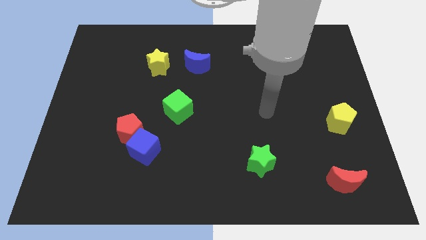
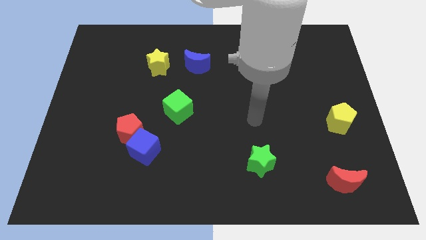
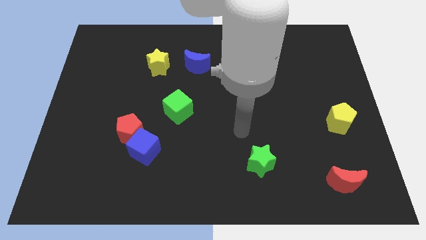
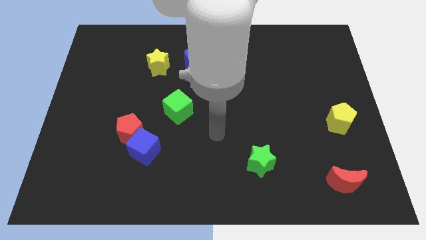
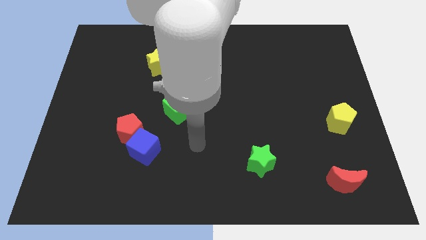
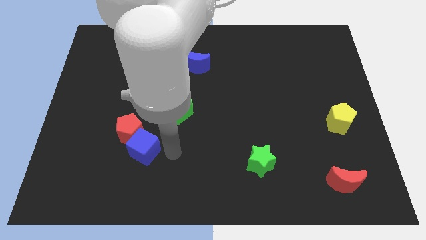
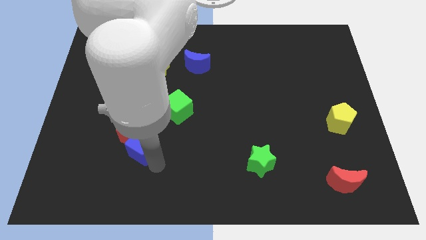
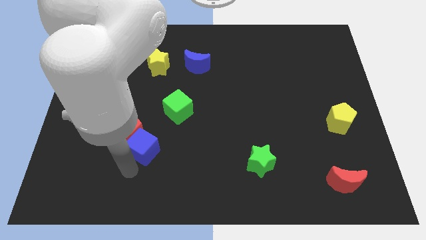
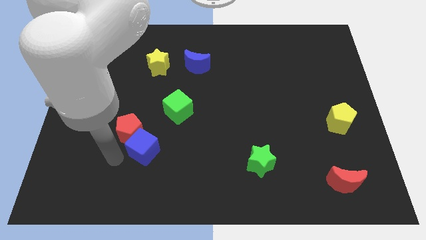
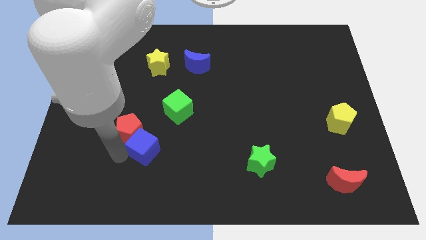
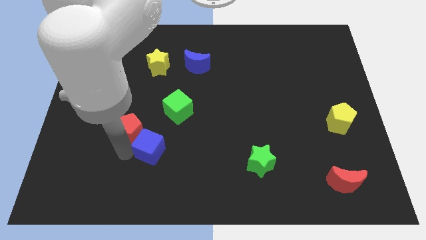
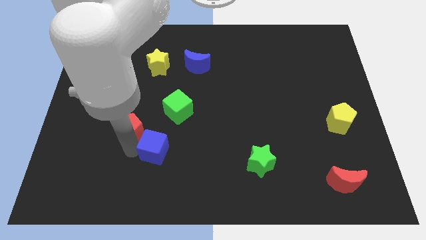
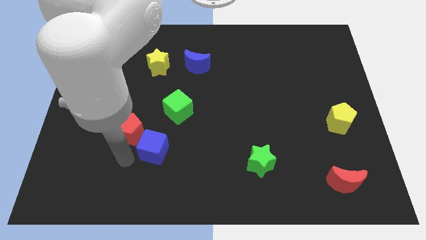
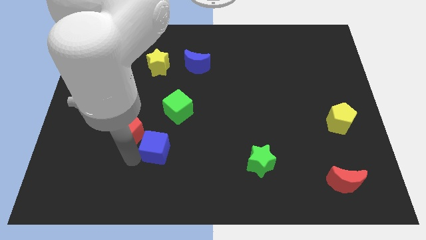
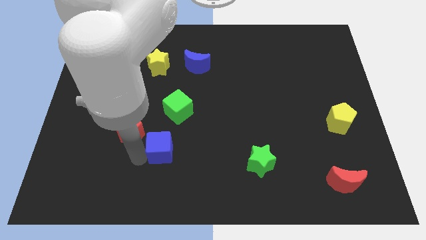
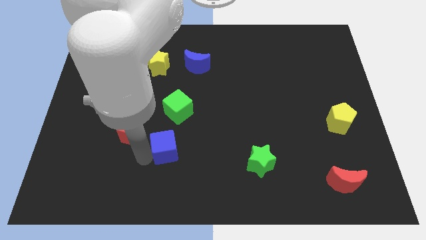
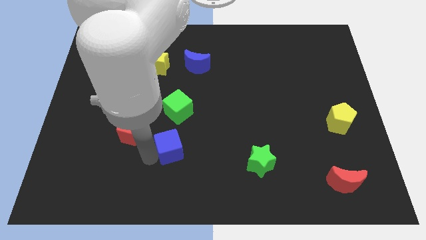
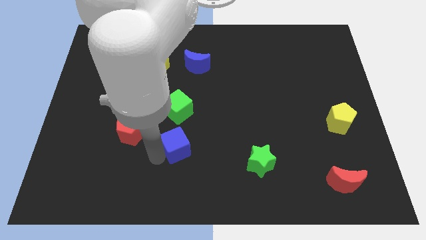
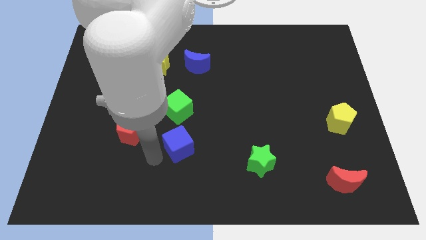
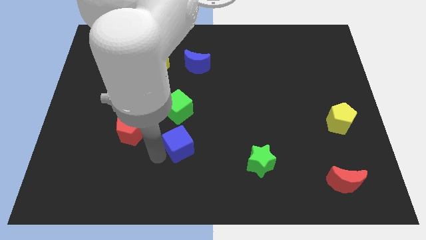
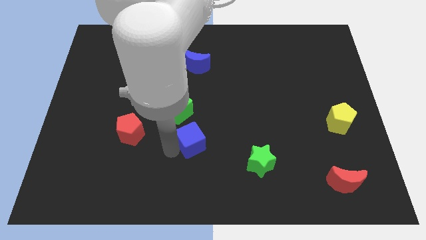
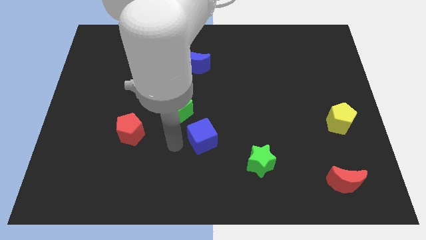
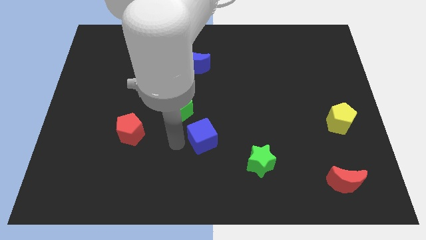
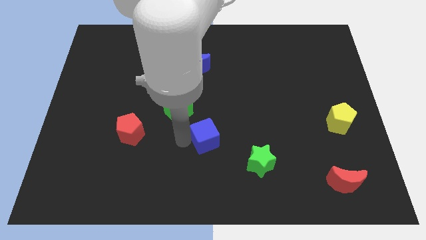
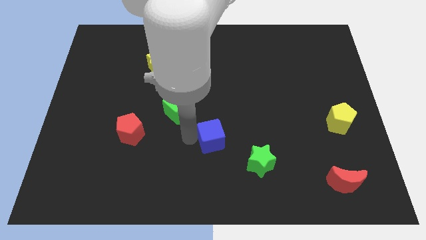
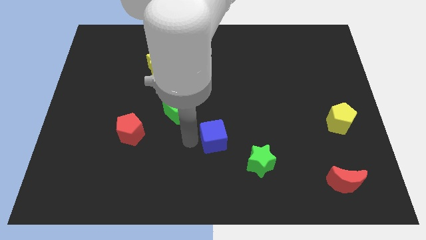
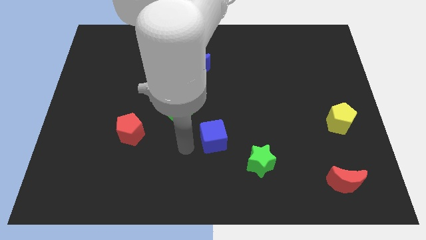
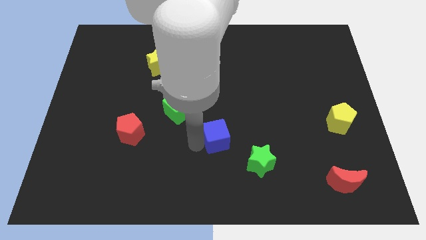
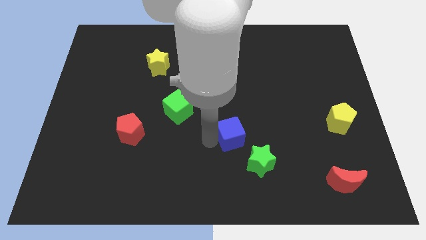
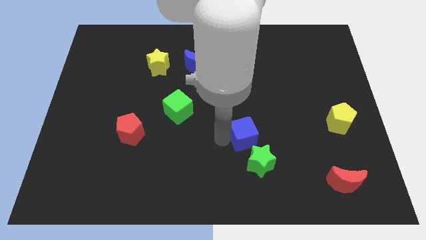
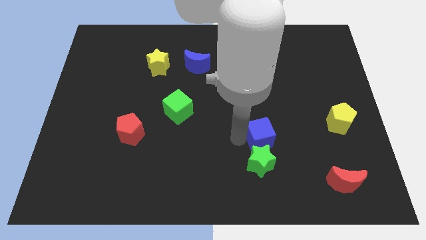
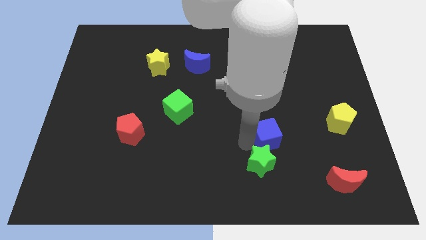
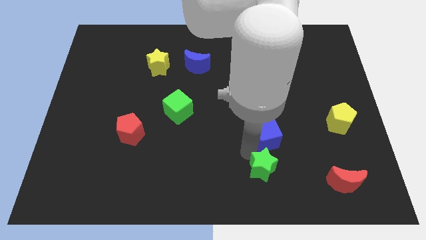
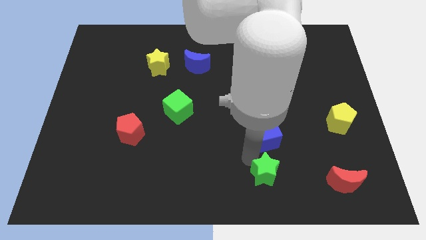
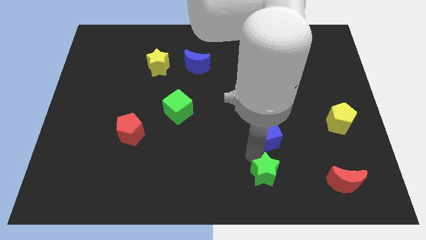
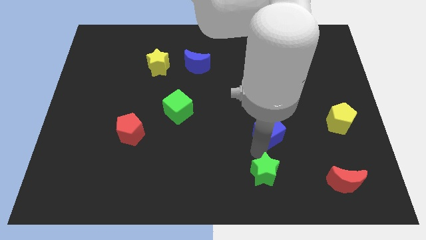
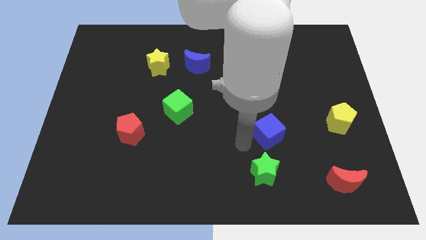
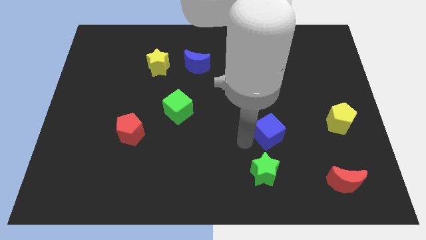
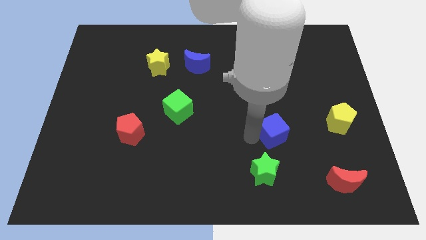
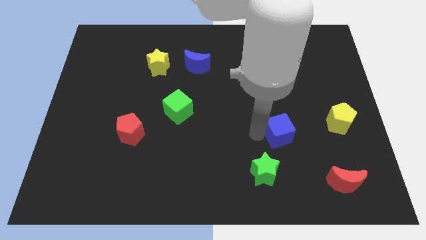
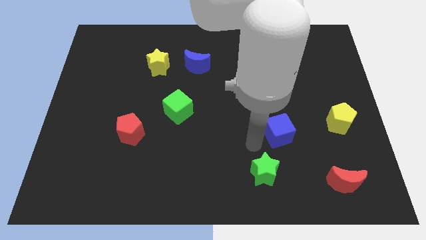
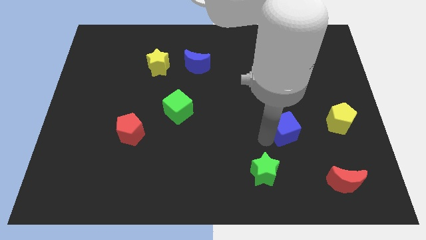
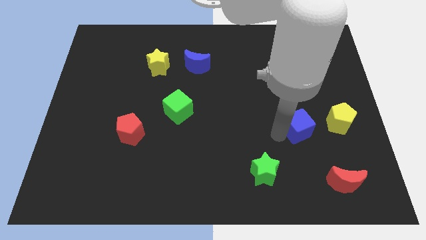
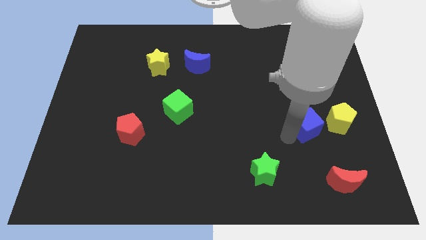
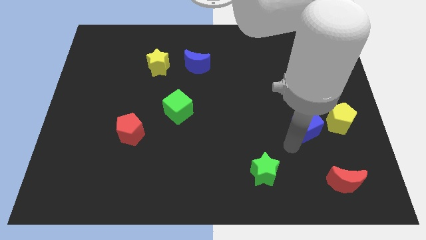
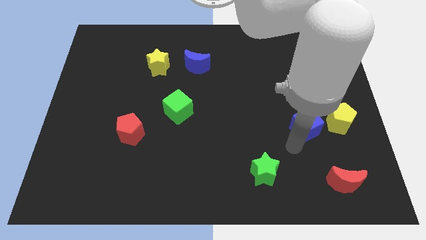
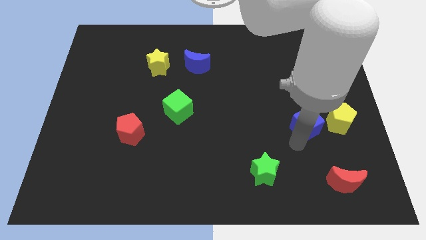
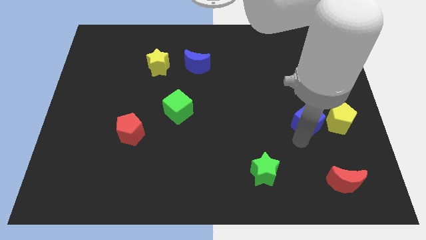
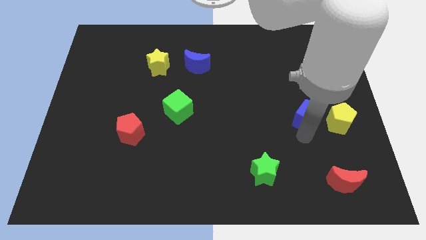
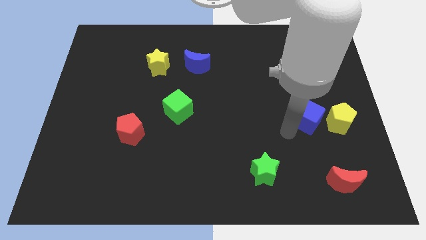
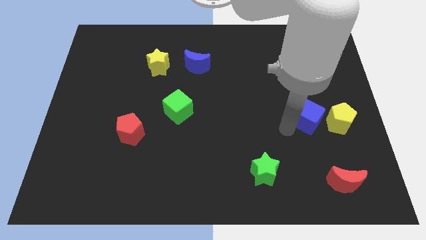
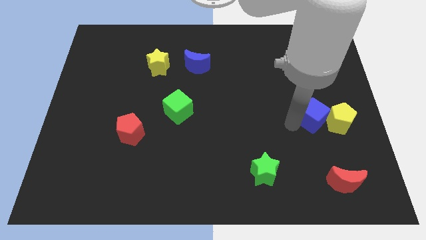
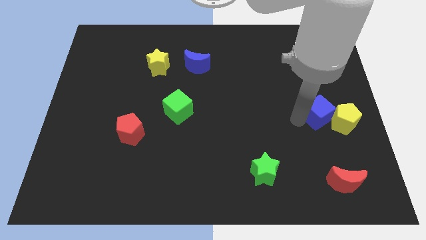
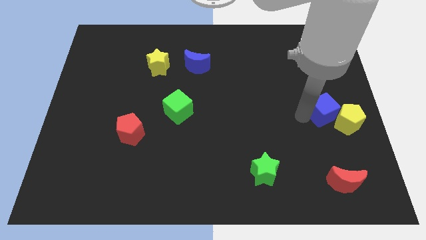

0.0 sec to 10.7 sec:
push the blue cube to the right side of the board
